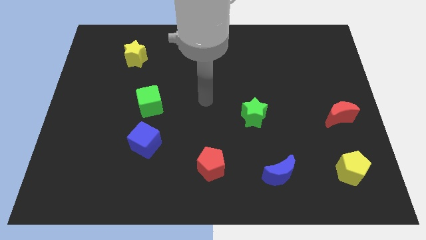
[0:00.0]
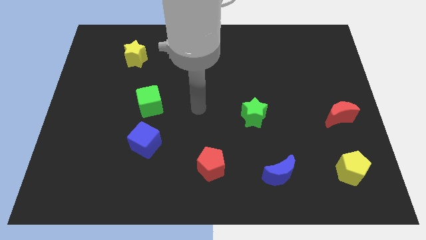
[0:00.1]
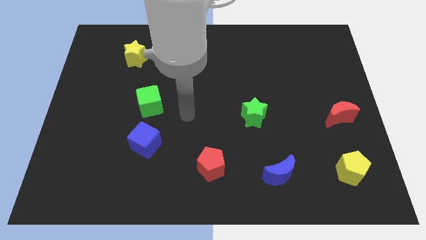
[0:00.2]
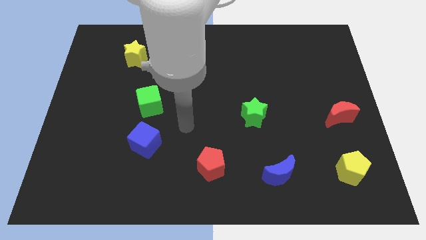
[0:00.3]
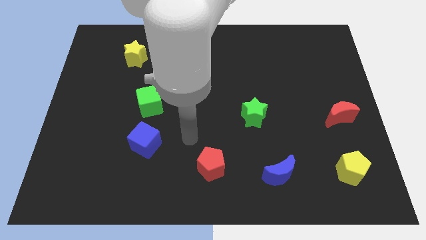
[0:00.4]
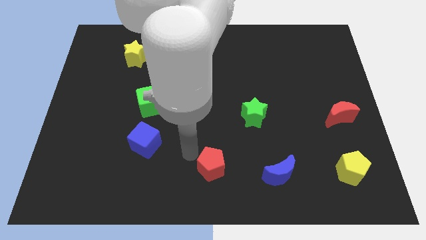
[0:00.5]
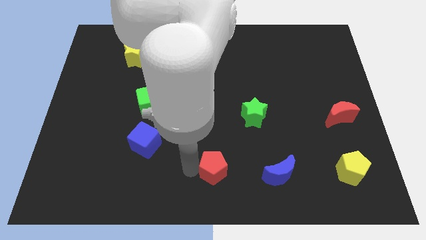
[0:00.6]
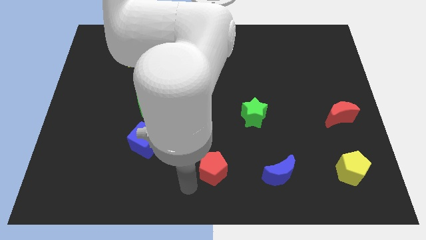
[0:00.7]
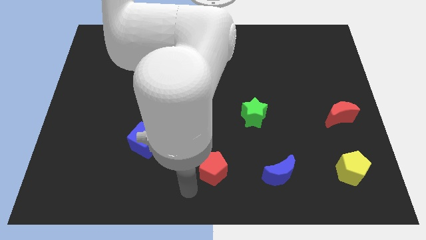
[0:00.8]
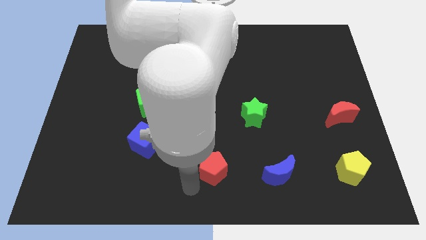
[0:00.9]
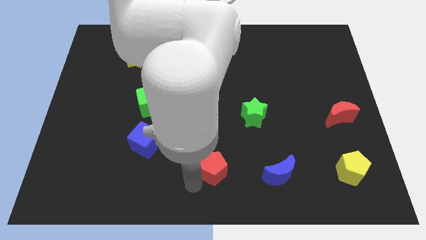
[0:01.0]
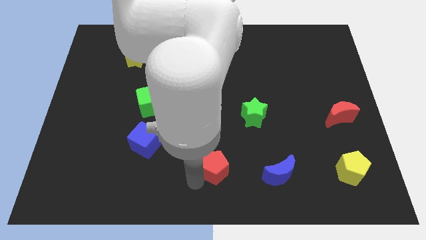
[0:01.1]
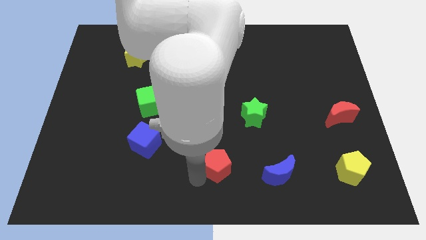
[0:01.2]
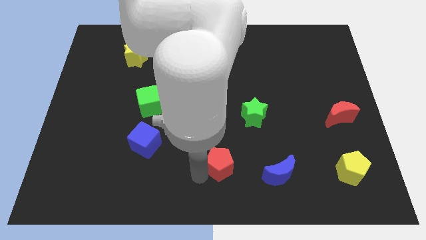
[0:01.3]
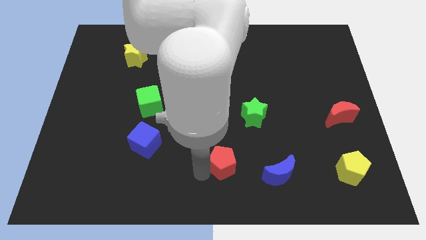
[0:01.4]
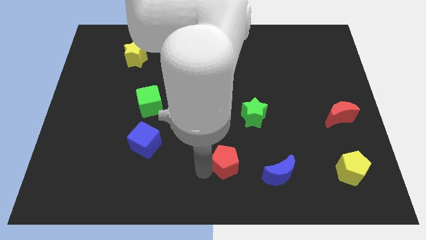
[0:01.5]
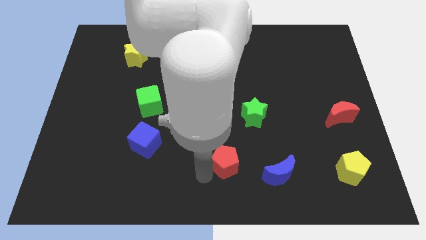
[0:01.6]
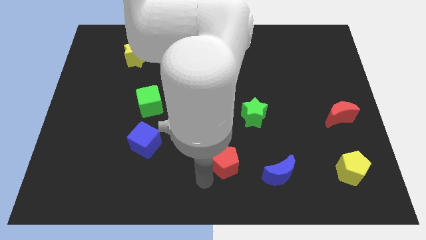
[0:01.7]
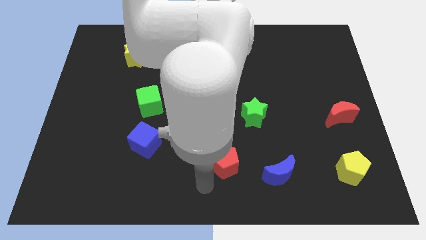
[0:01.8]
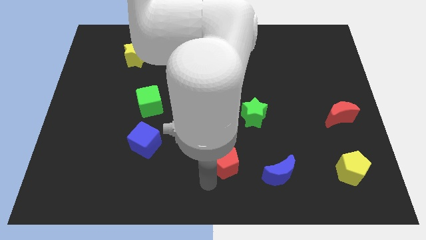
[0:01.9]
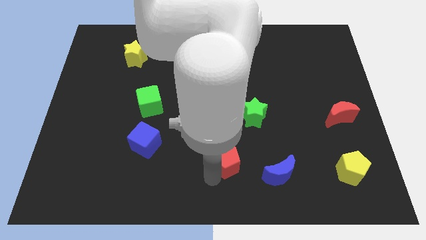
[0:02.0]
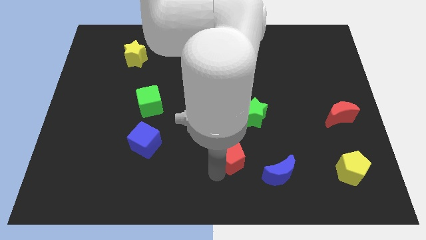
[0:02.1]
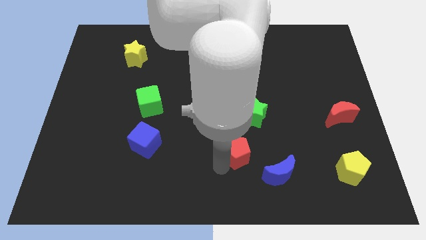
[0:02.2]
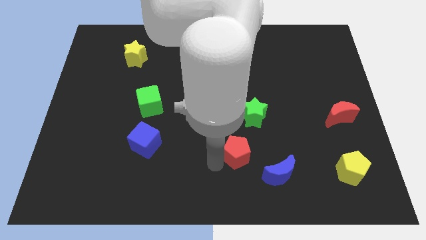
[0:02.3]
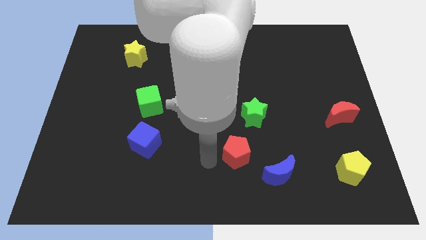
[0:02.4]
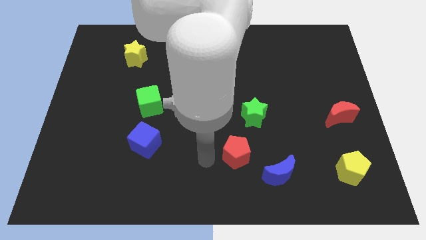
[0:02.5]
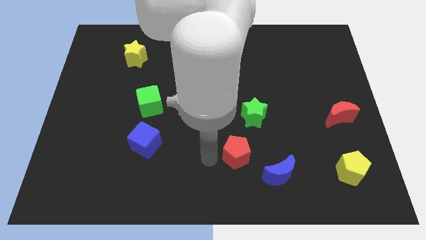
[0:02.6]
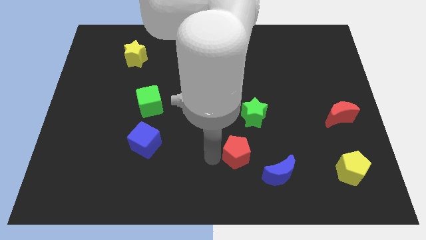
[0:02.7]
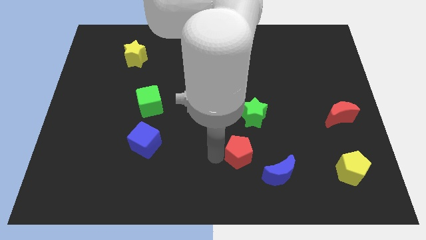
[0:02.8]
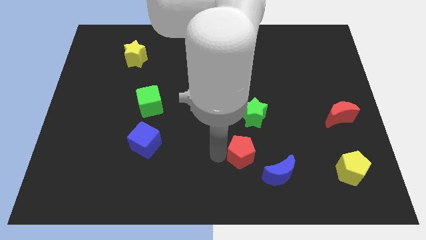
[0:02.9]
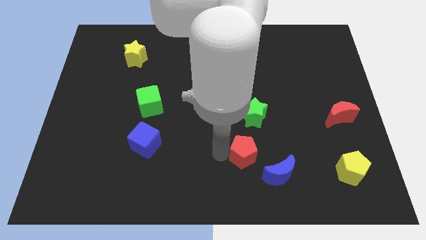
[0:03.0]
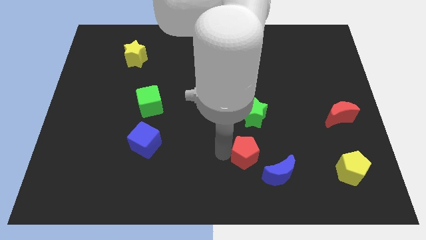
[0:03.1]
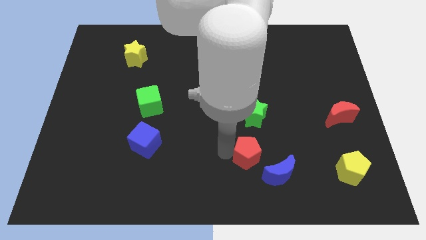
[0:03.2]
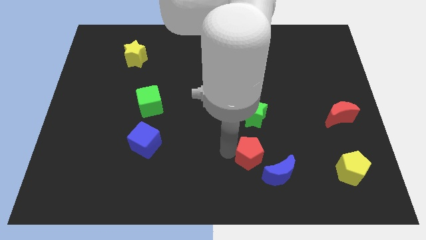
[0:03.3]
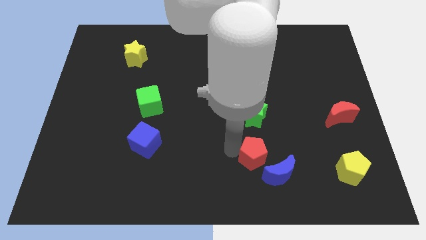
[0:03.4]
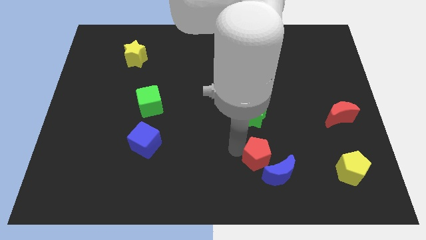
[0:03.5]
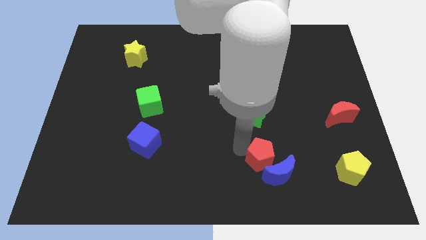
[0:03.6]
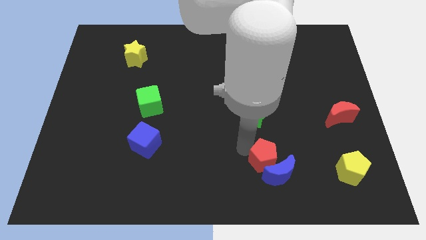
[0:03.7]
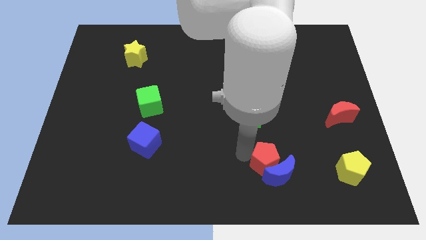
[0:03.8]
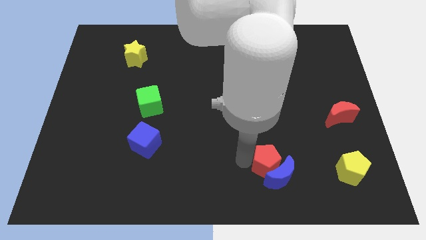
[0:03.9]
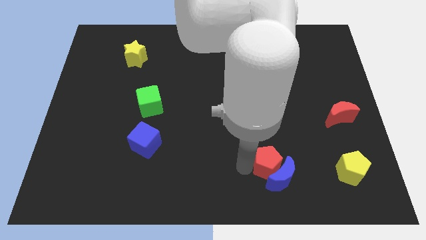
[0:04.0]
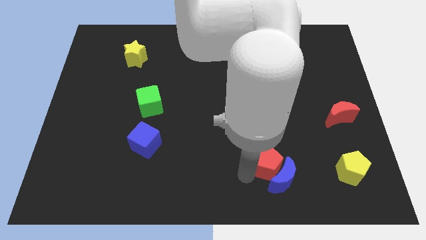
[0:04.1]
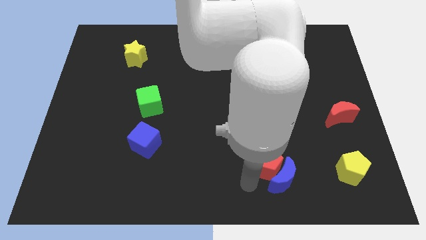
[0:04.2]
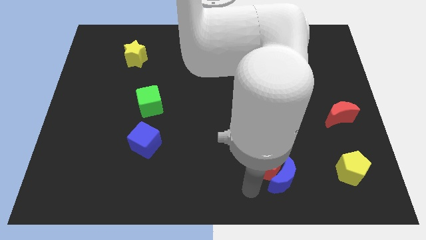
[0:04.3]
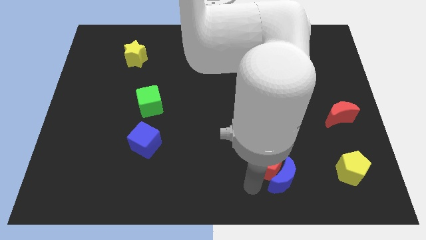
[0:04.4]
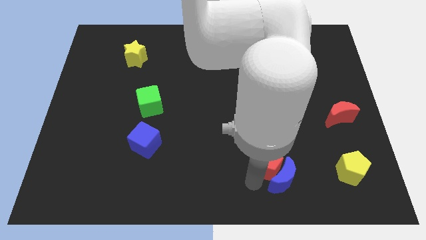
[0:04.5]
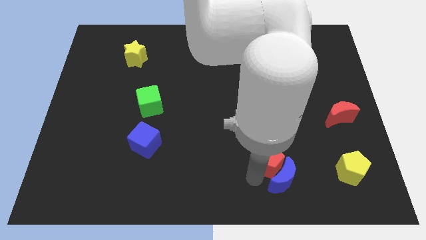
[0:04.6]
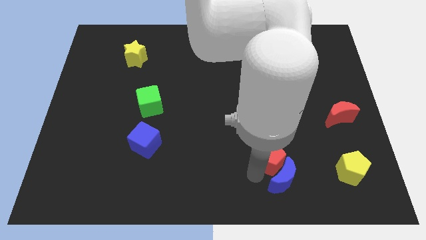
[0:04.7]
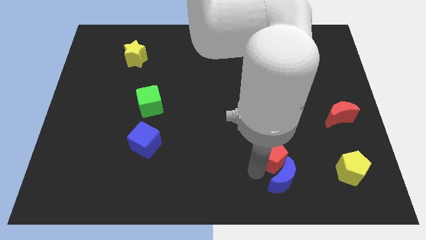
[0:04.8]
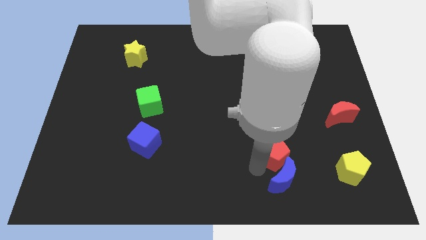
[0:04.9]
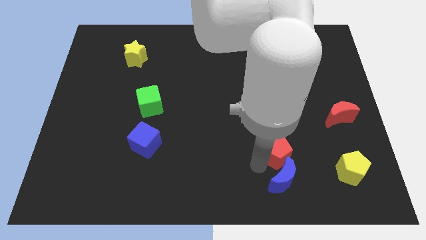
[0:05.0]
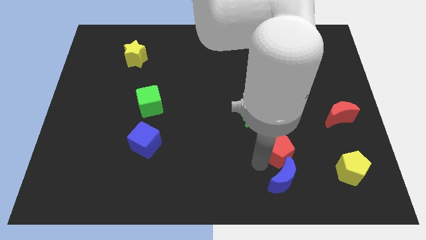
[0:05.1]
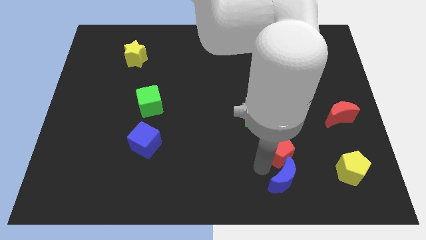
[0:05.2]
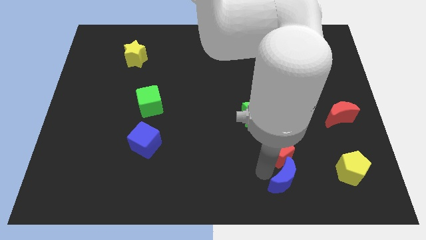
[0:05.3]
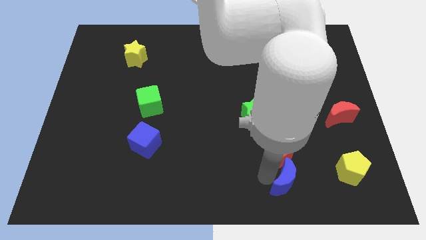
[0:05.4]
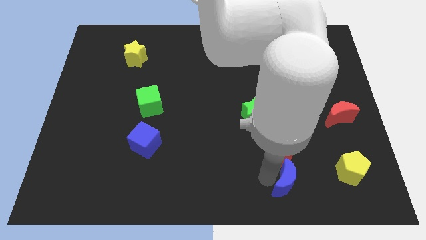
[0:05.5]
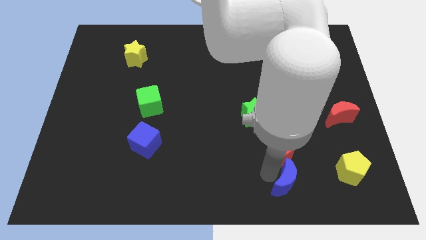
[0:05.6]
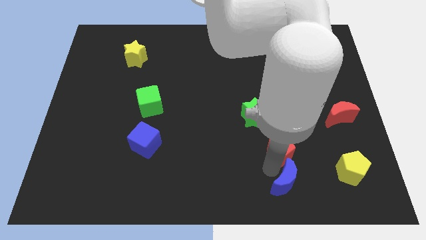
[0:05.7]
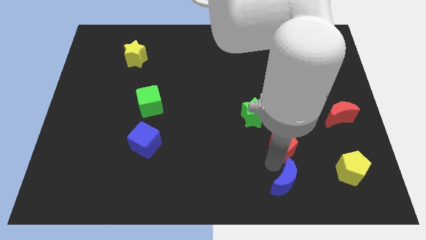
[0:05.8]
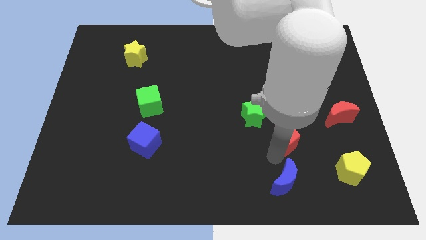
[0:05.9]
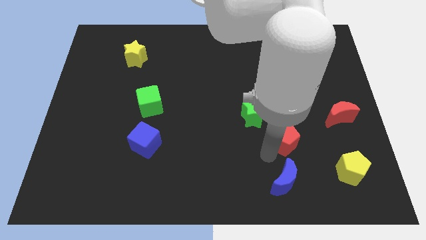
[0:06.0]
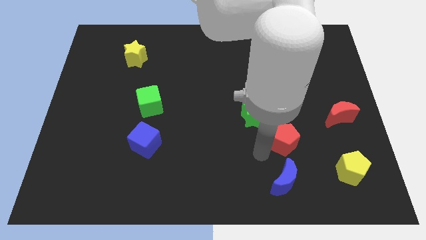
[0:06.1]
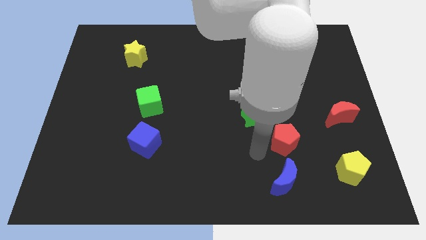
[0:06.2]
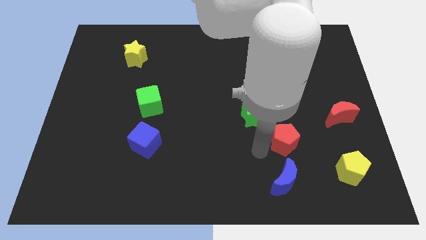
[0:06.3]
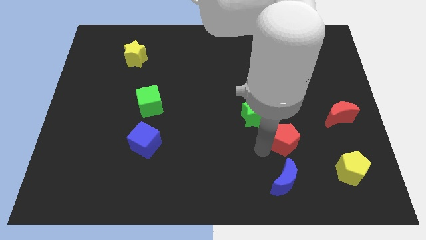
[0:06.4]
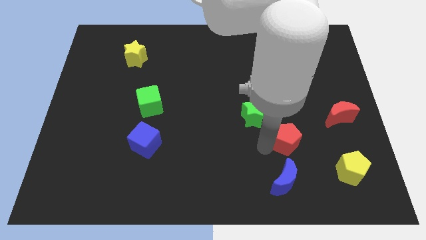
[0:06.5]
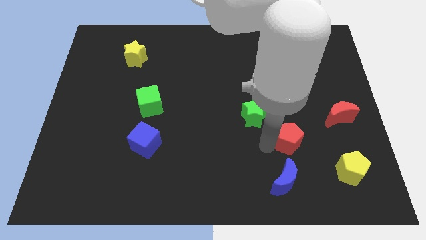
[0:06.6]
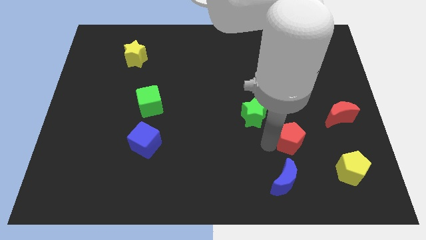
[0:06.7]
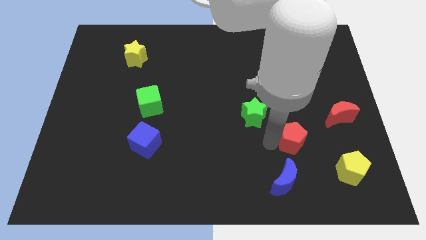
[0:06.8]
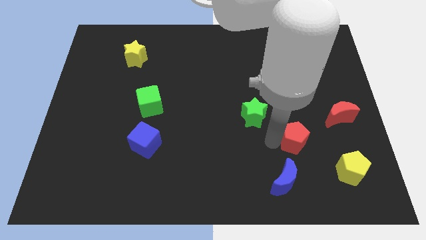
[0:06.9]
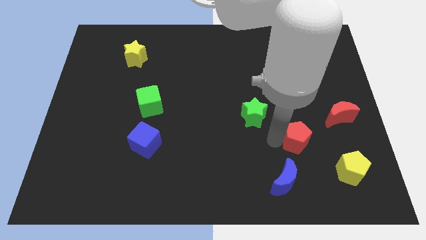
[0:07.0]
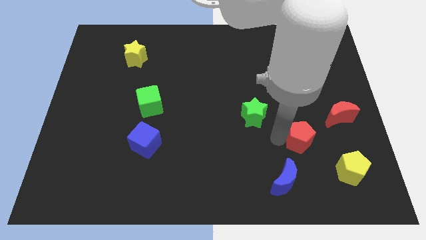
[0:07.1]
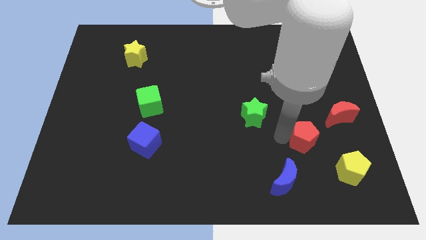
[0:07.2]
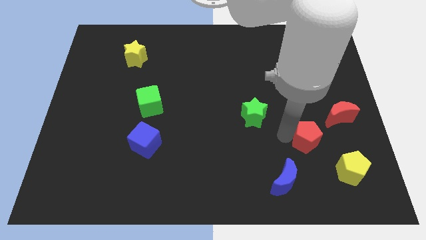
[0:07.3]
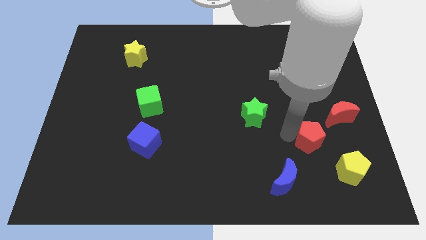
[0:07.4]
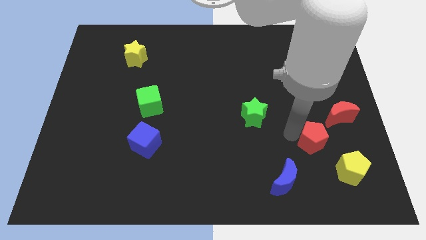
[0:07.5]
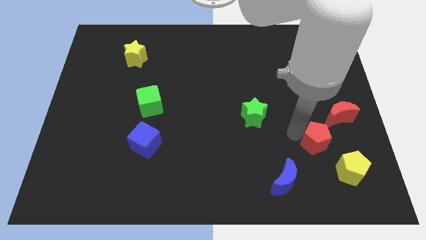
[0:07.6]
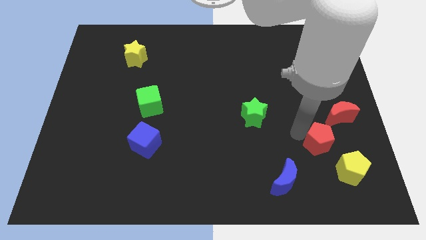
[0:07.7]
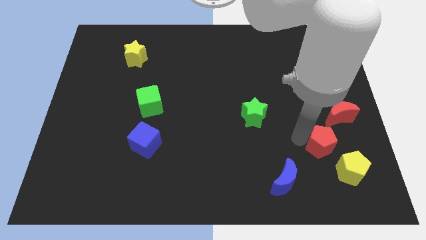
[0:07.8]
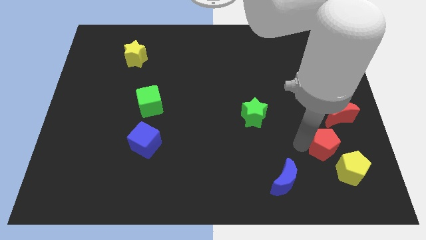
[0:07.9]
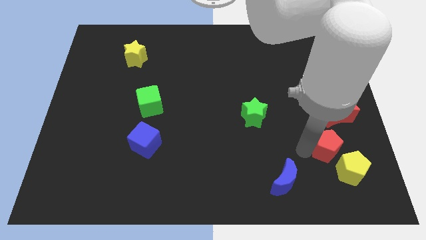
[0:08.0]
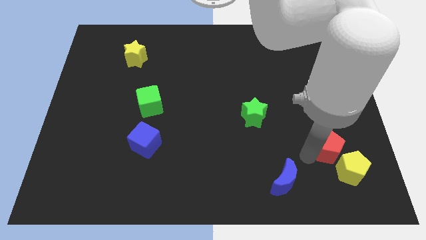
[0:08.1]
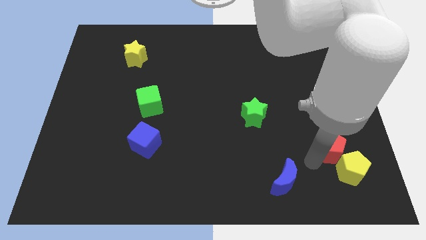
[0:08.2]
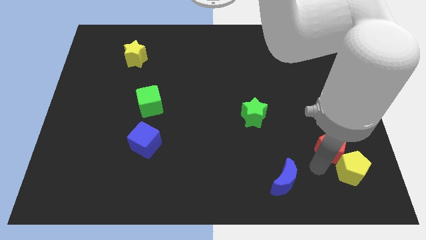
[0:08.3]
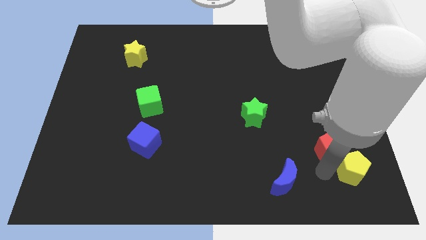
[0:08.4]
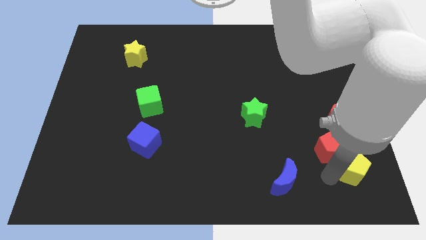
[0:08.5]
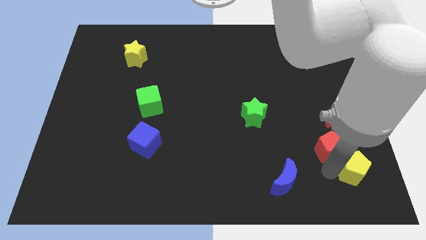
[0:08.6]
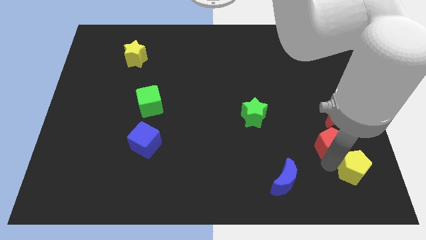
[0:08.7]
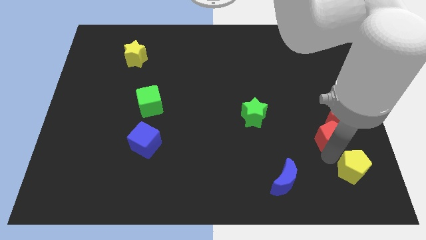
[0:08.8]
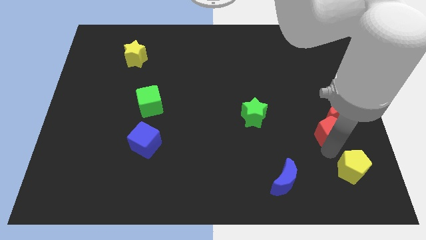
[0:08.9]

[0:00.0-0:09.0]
push the red pentagon towards the red moon
